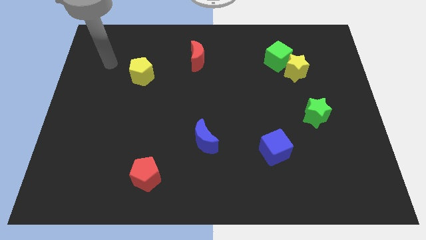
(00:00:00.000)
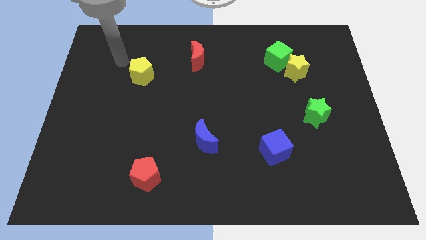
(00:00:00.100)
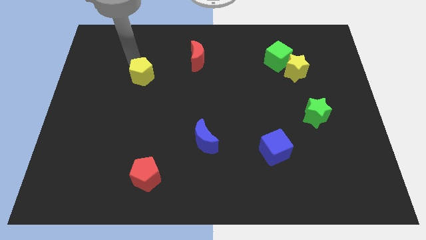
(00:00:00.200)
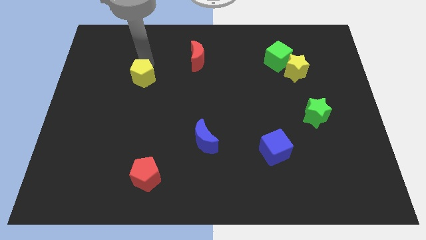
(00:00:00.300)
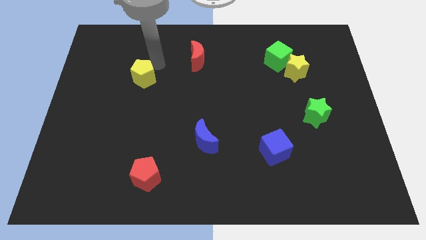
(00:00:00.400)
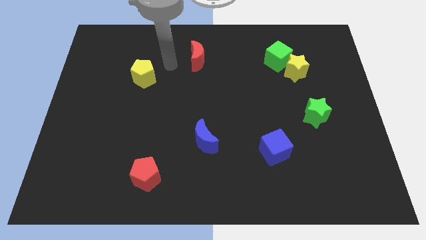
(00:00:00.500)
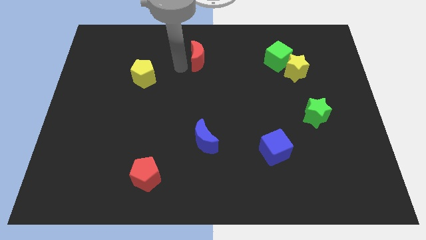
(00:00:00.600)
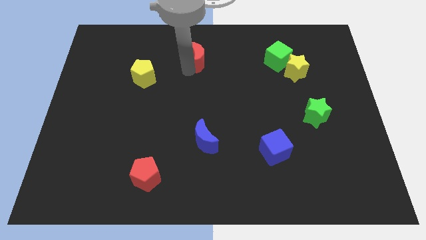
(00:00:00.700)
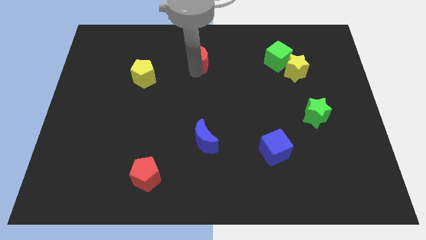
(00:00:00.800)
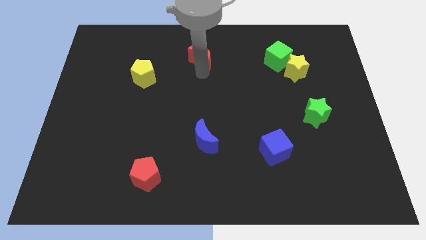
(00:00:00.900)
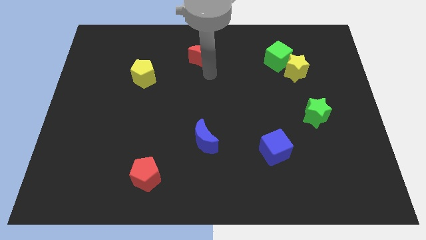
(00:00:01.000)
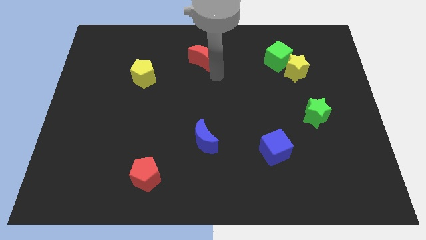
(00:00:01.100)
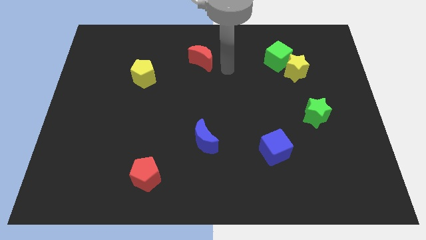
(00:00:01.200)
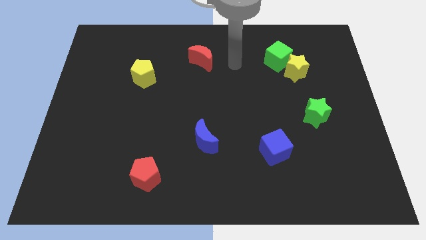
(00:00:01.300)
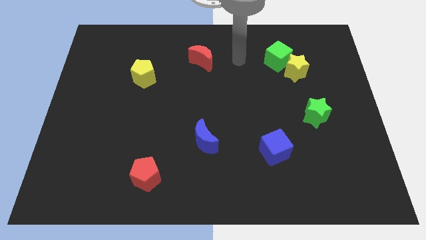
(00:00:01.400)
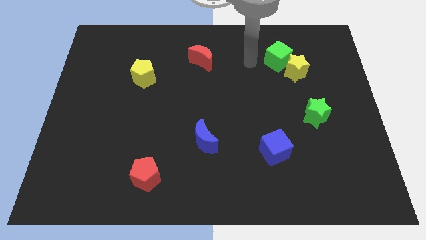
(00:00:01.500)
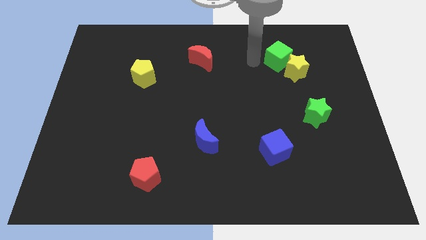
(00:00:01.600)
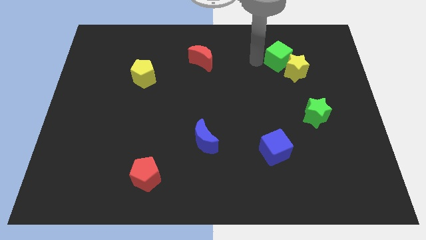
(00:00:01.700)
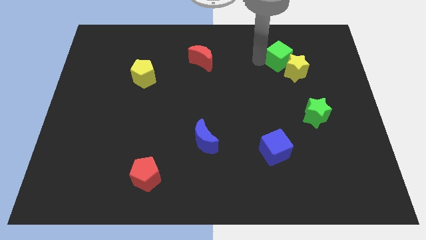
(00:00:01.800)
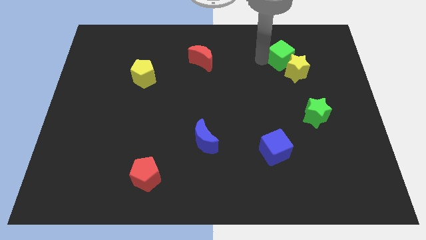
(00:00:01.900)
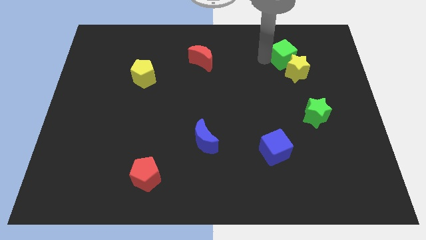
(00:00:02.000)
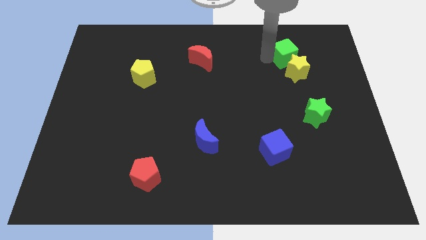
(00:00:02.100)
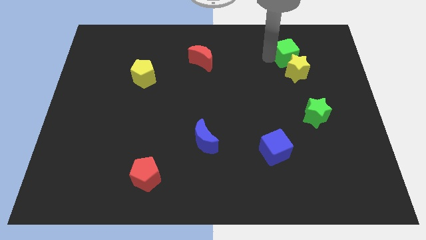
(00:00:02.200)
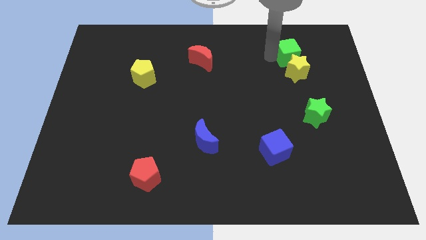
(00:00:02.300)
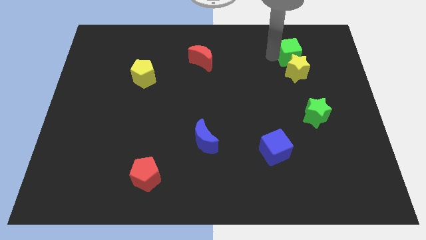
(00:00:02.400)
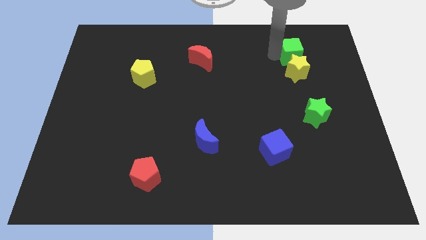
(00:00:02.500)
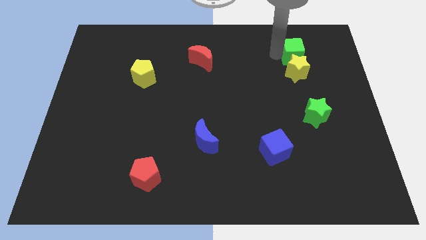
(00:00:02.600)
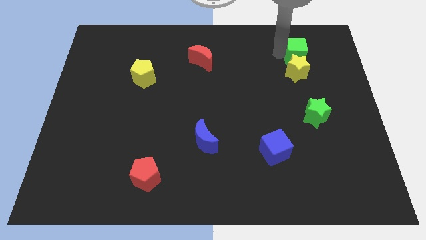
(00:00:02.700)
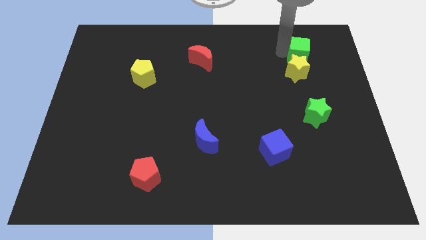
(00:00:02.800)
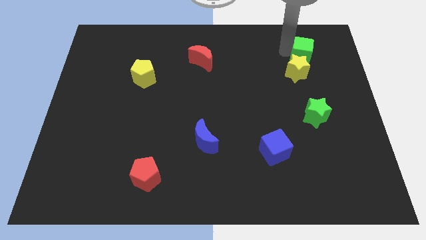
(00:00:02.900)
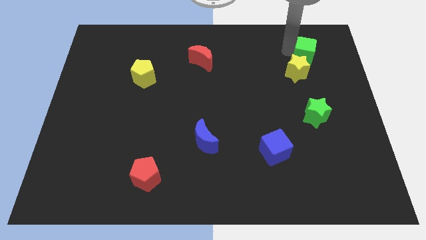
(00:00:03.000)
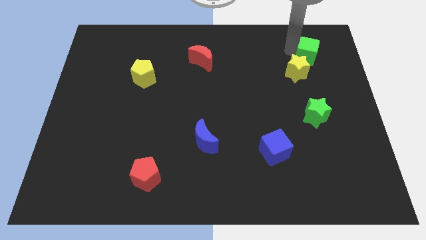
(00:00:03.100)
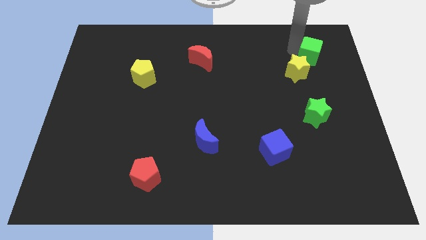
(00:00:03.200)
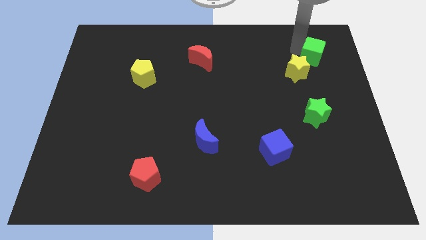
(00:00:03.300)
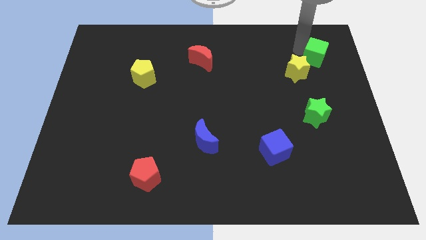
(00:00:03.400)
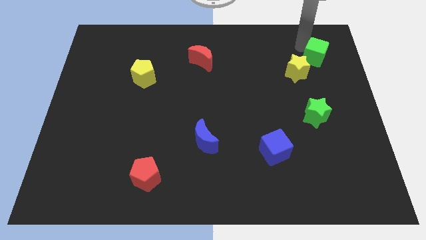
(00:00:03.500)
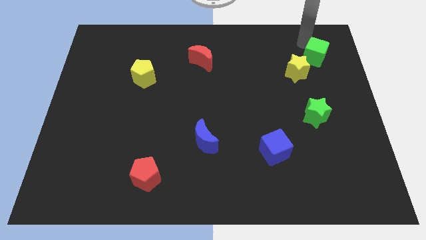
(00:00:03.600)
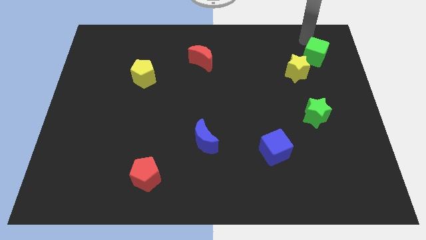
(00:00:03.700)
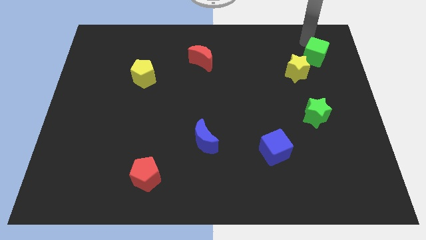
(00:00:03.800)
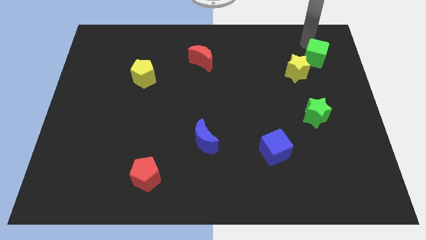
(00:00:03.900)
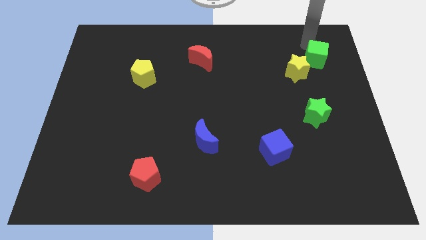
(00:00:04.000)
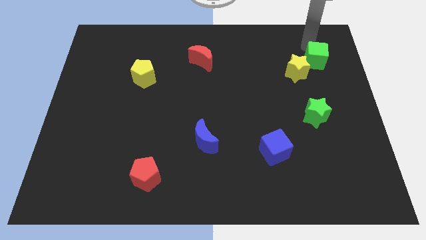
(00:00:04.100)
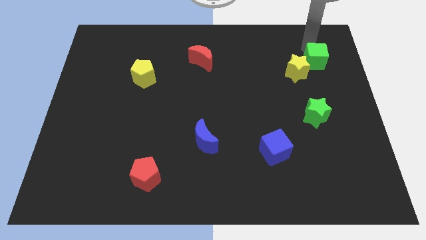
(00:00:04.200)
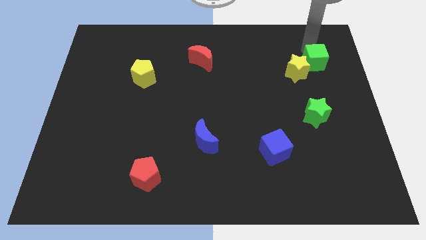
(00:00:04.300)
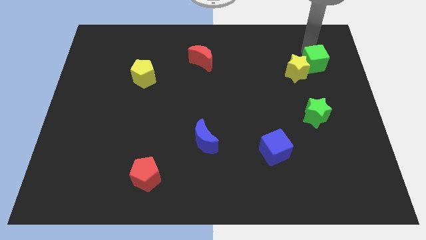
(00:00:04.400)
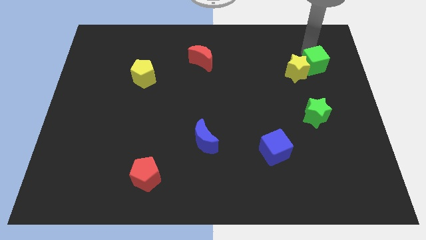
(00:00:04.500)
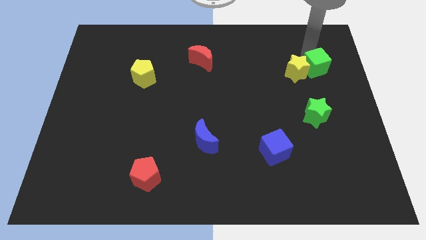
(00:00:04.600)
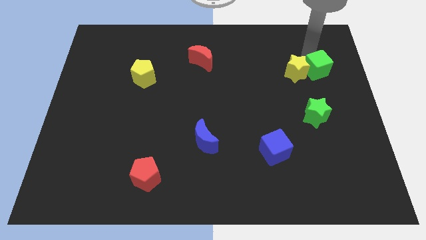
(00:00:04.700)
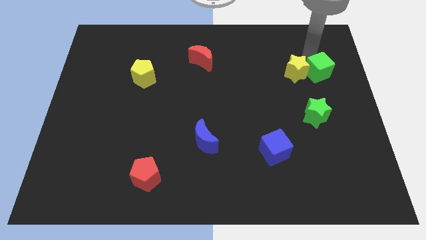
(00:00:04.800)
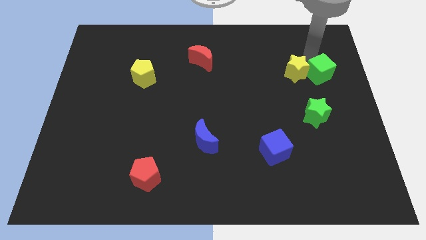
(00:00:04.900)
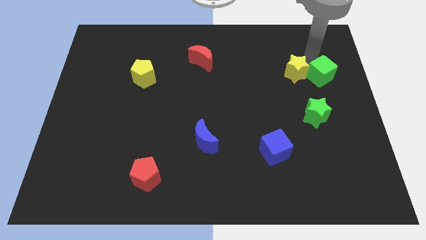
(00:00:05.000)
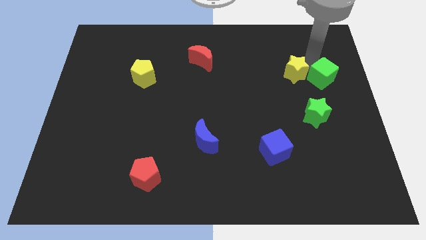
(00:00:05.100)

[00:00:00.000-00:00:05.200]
push the green cube to the right side

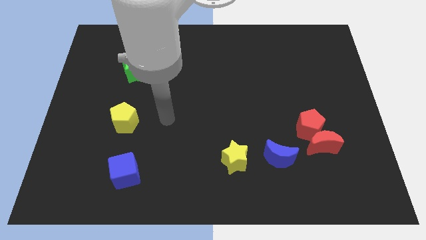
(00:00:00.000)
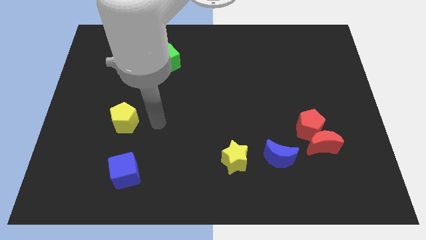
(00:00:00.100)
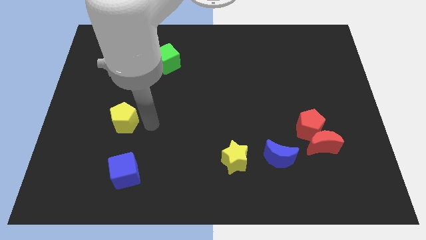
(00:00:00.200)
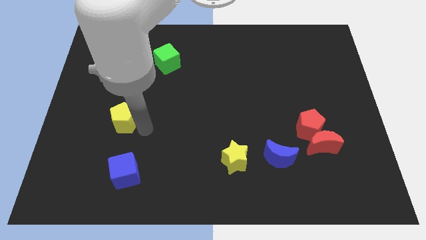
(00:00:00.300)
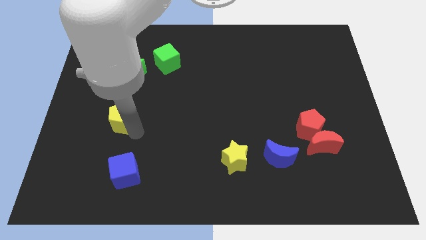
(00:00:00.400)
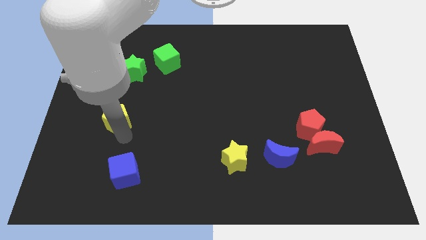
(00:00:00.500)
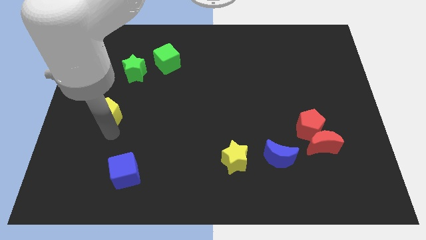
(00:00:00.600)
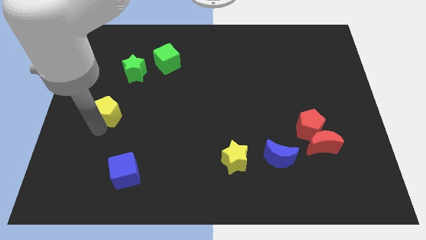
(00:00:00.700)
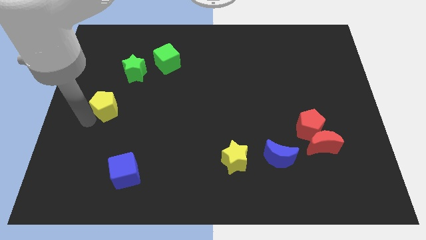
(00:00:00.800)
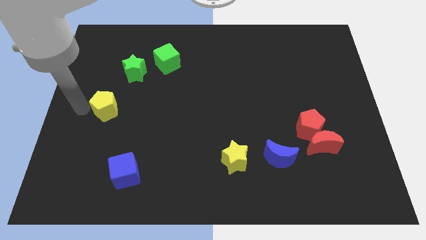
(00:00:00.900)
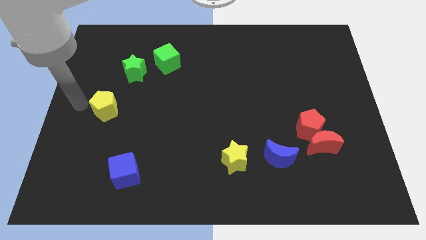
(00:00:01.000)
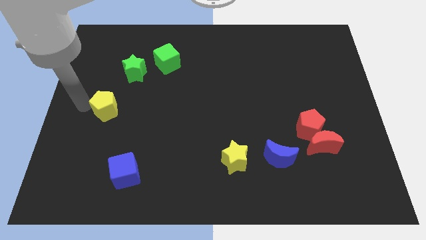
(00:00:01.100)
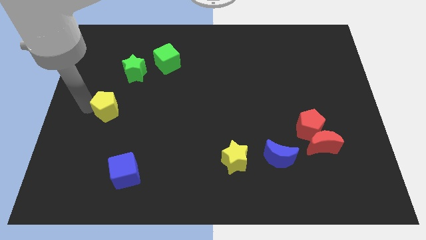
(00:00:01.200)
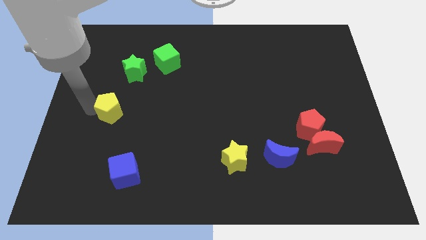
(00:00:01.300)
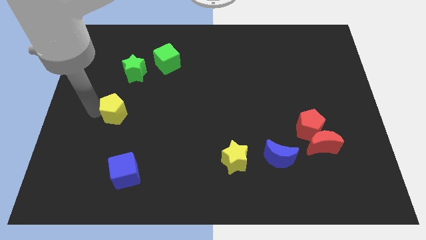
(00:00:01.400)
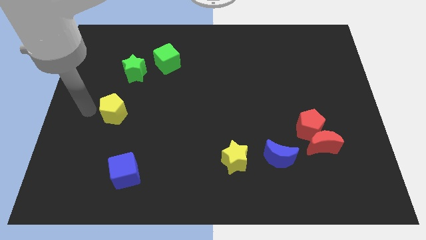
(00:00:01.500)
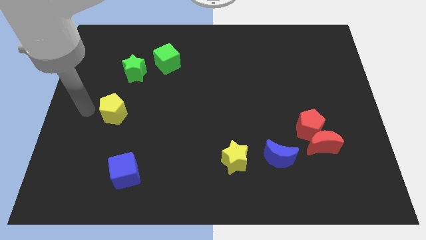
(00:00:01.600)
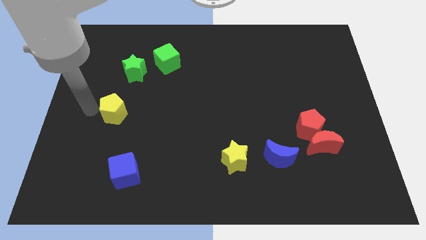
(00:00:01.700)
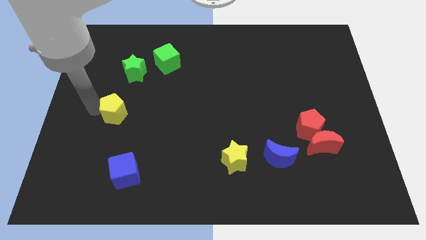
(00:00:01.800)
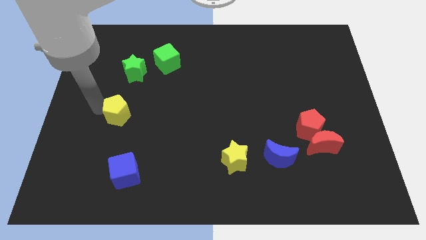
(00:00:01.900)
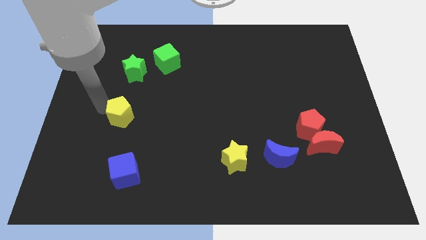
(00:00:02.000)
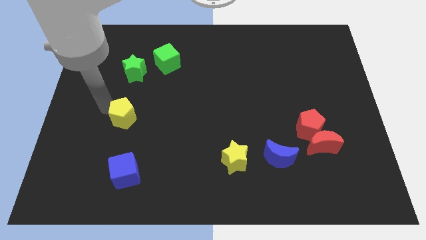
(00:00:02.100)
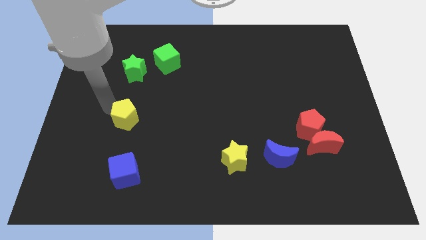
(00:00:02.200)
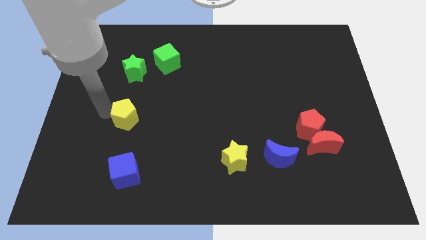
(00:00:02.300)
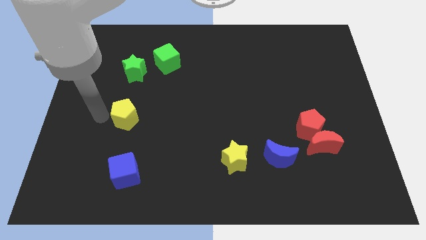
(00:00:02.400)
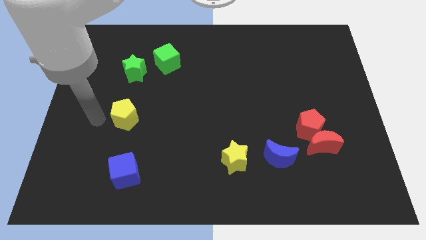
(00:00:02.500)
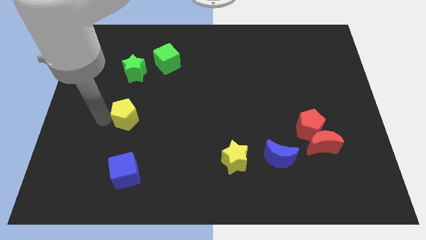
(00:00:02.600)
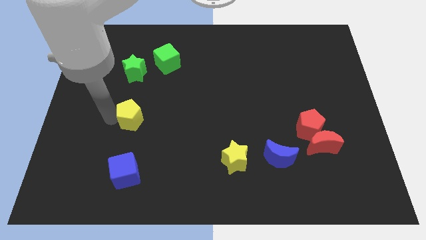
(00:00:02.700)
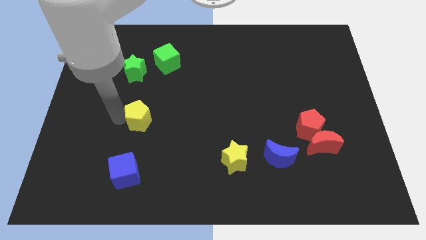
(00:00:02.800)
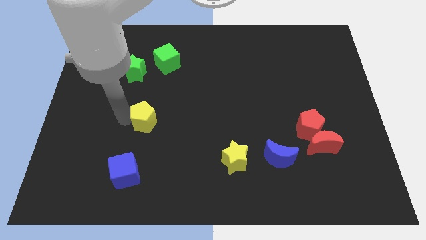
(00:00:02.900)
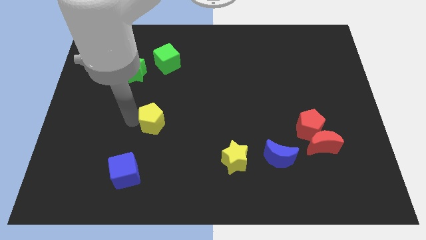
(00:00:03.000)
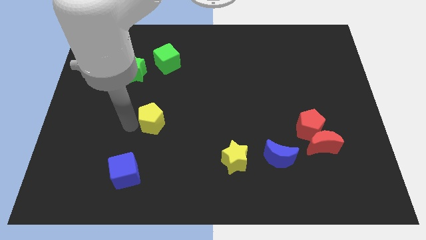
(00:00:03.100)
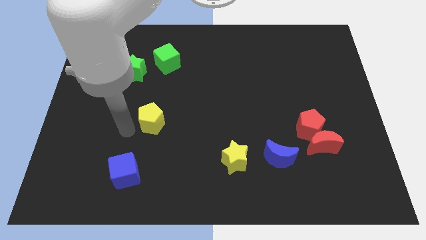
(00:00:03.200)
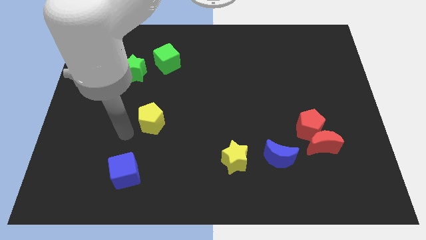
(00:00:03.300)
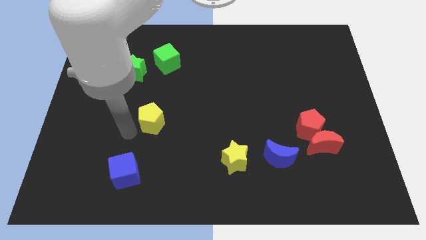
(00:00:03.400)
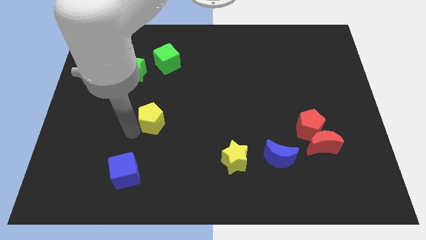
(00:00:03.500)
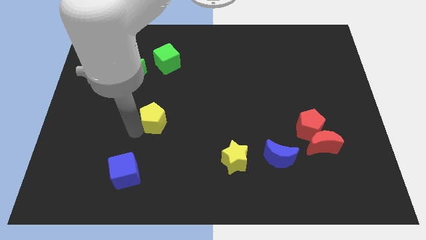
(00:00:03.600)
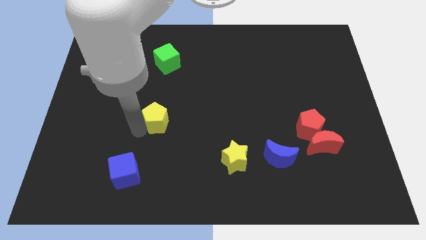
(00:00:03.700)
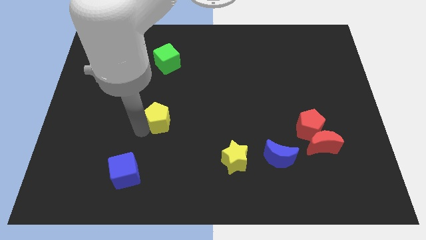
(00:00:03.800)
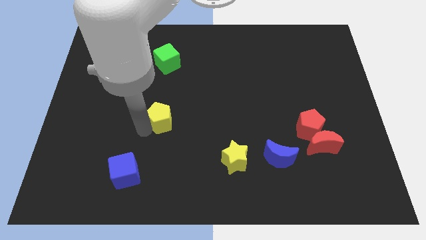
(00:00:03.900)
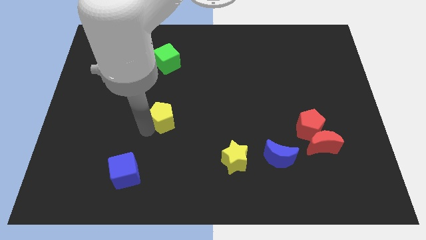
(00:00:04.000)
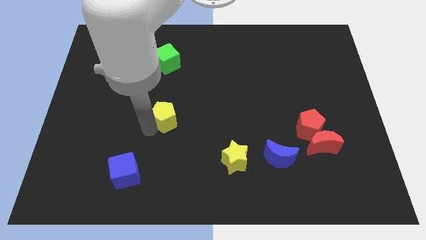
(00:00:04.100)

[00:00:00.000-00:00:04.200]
put the yellow pentagon to the center of the board
